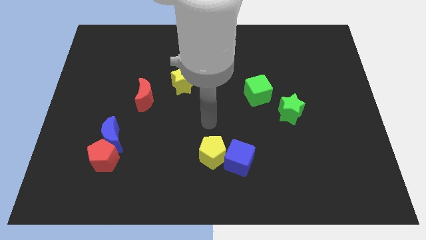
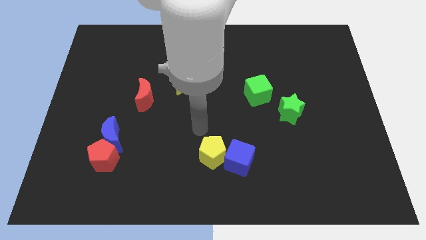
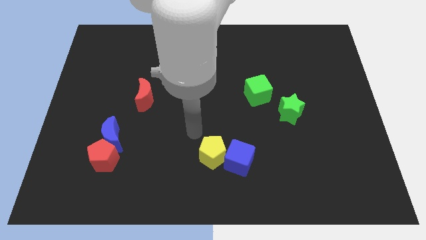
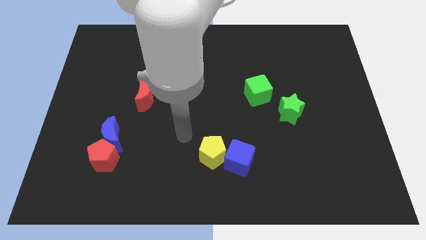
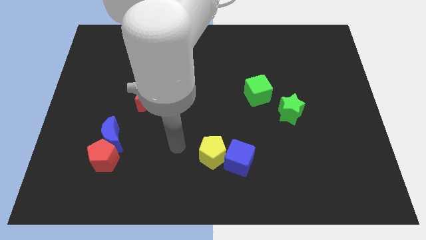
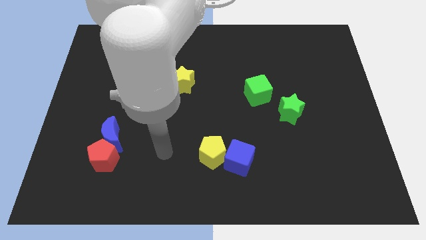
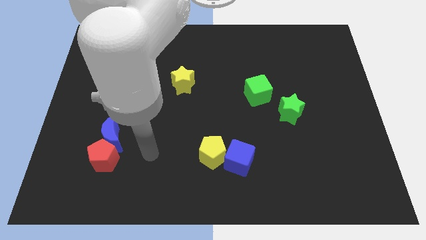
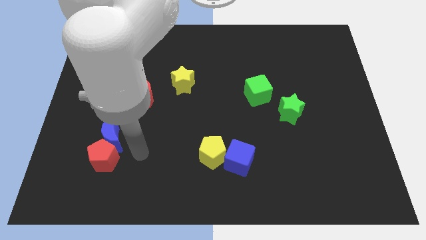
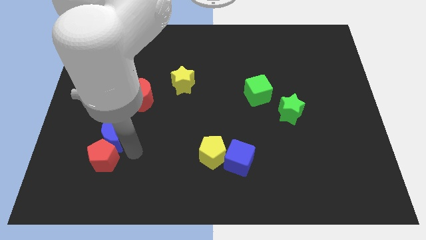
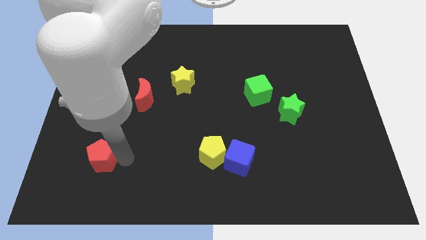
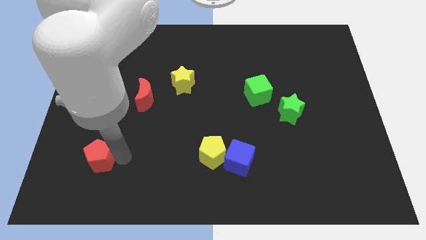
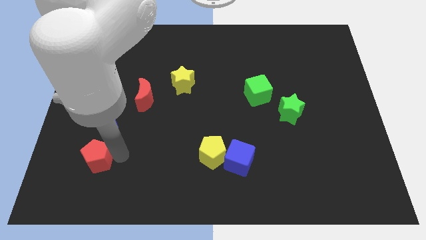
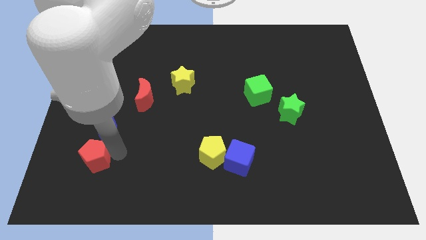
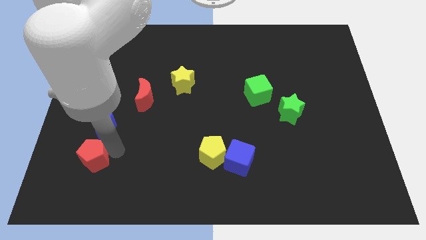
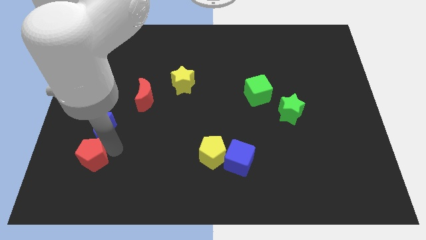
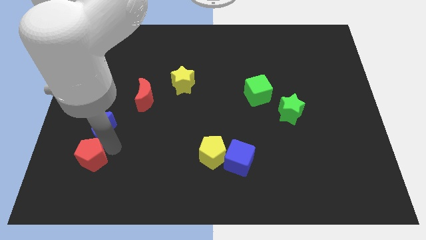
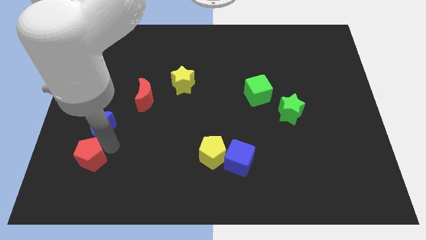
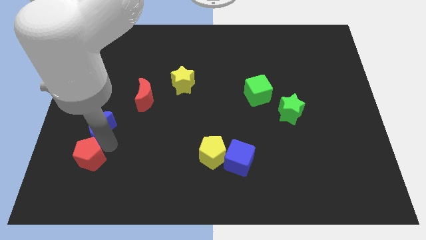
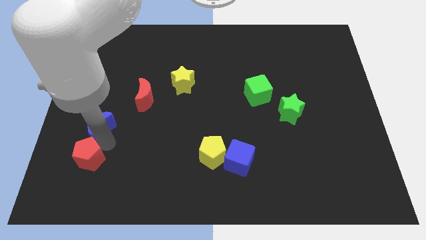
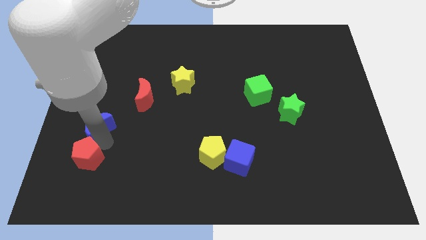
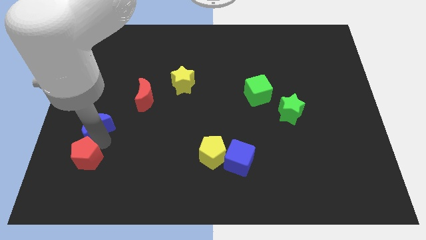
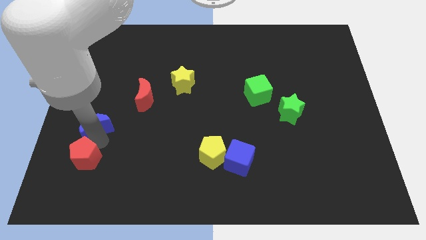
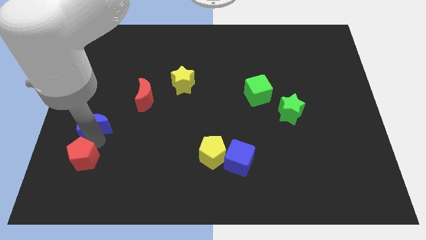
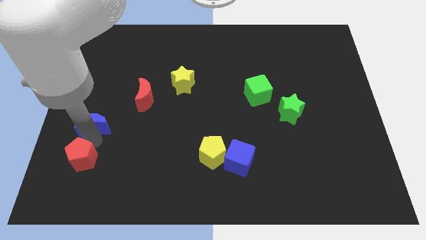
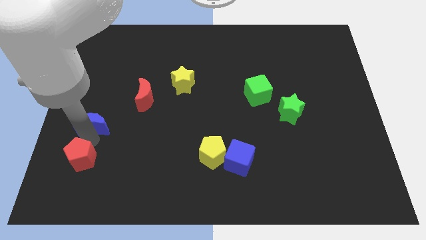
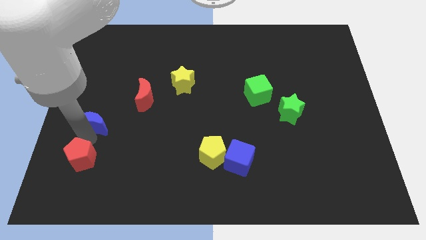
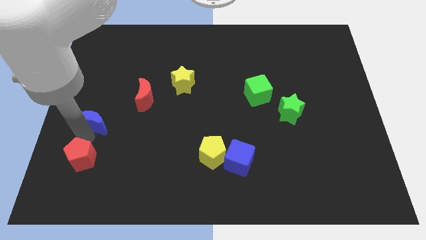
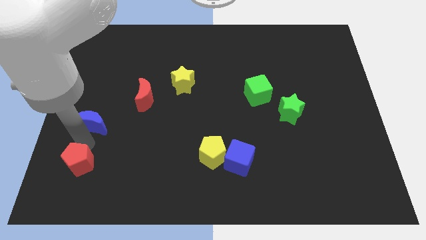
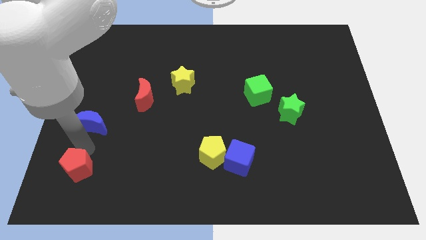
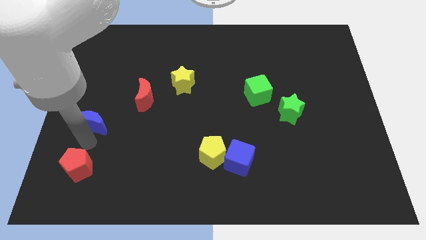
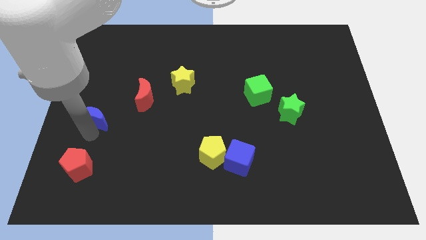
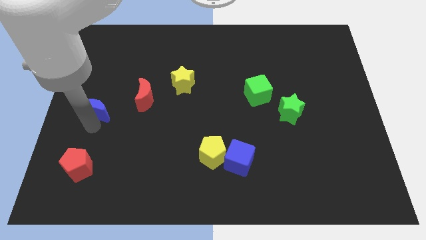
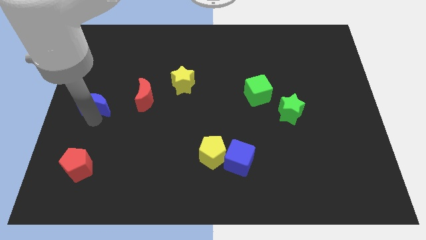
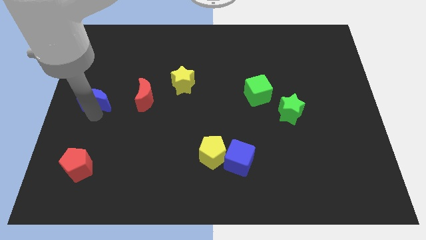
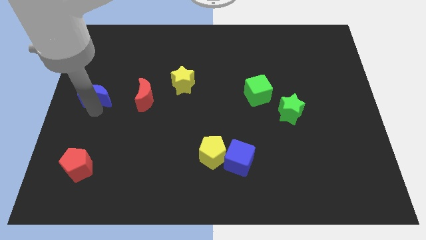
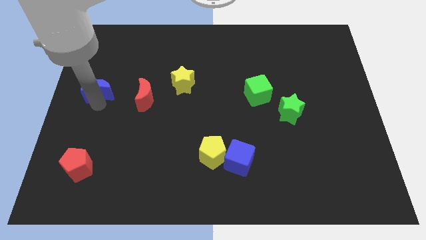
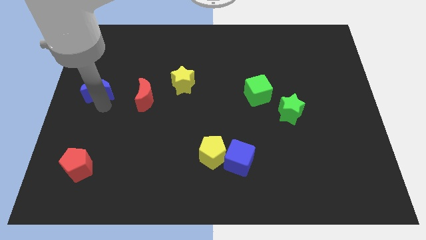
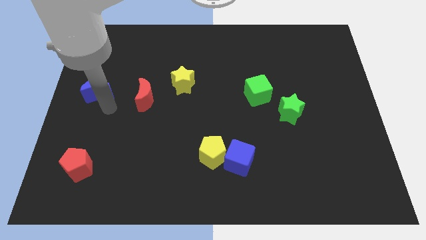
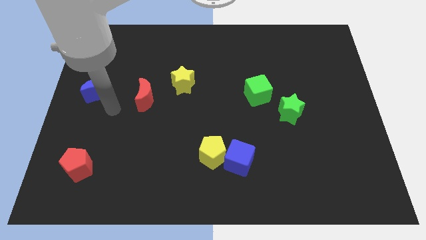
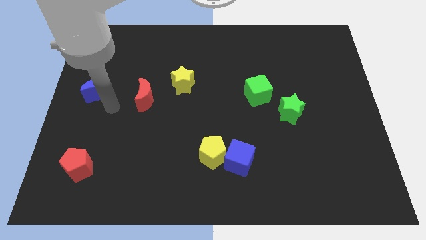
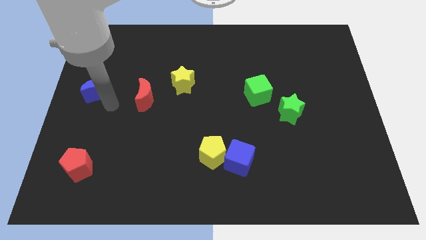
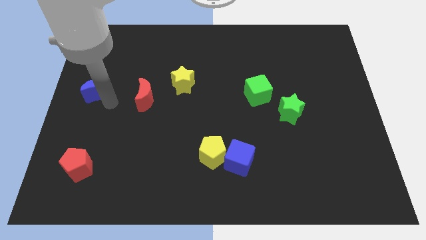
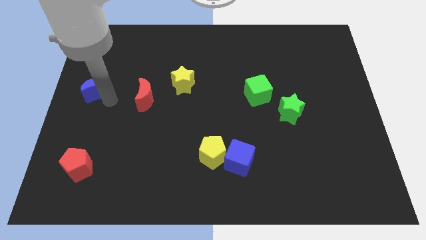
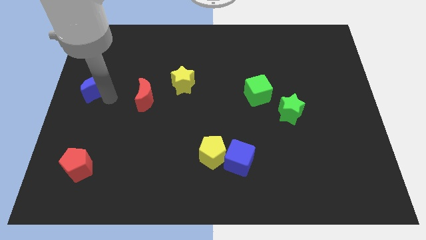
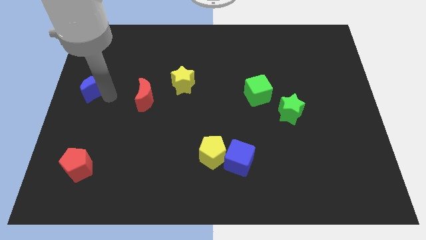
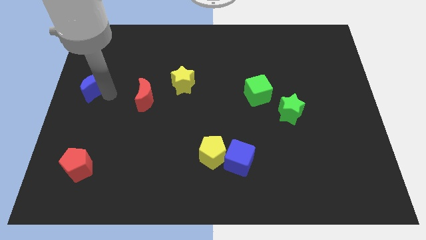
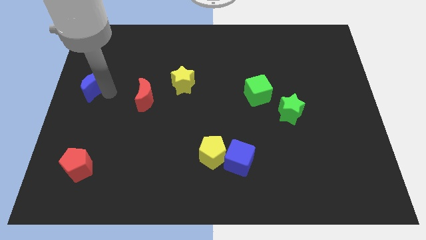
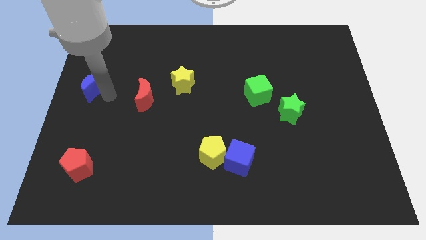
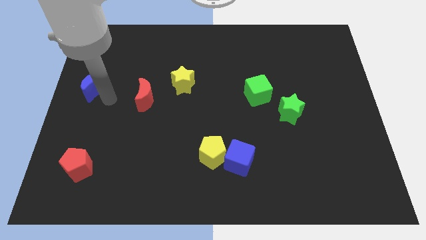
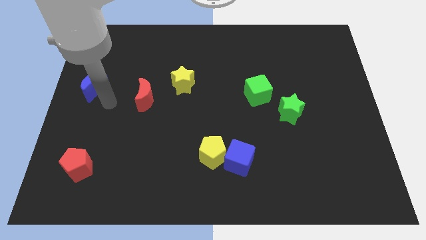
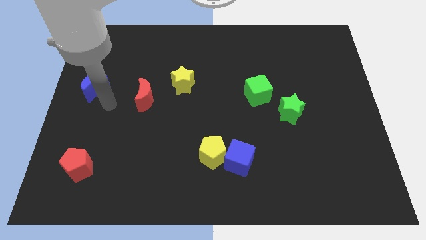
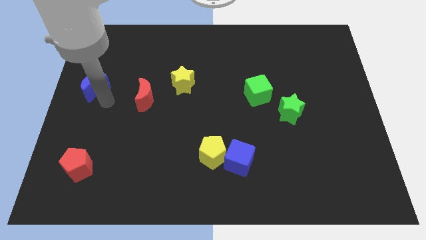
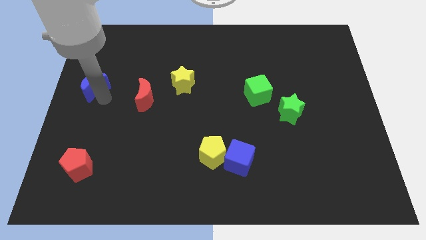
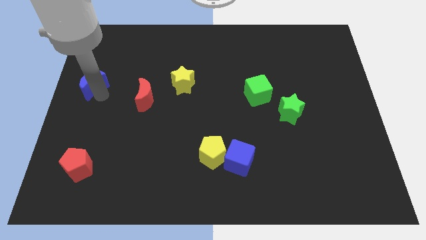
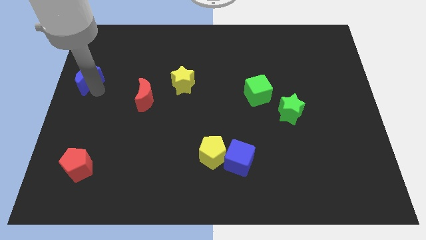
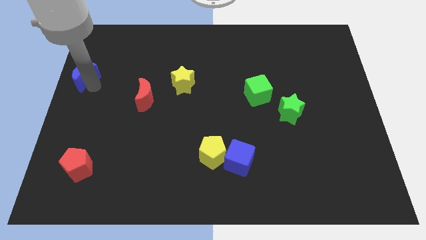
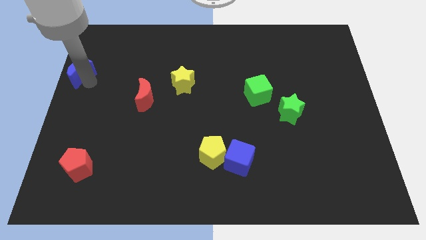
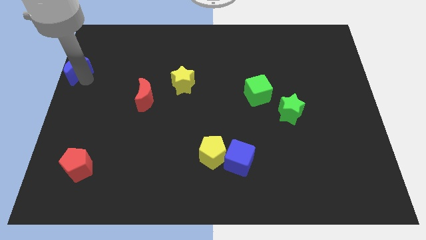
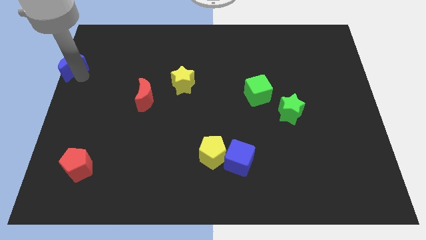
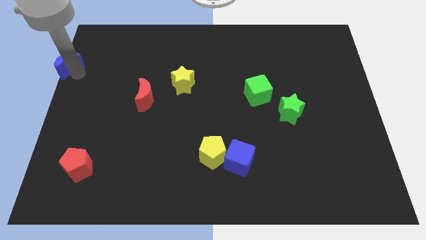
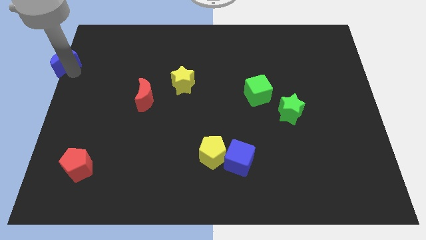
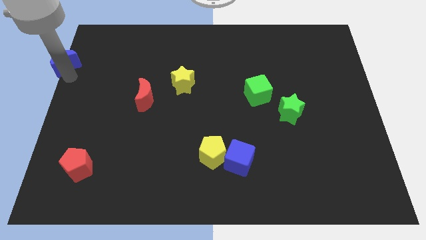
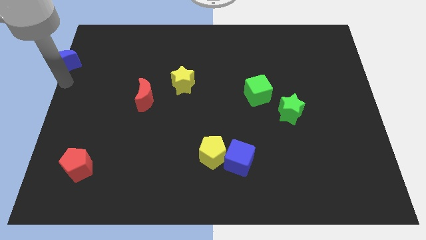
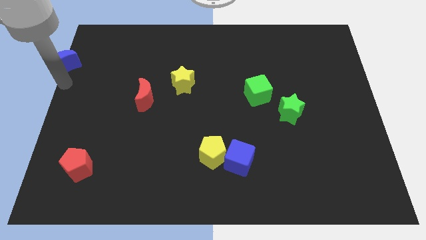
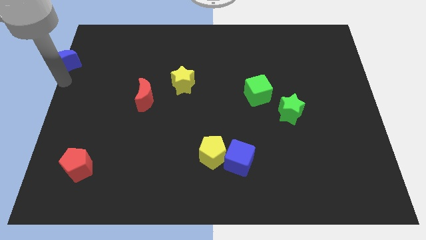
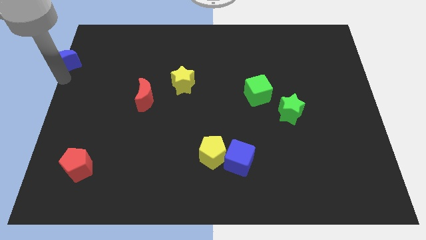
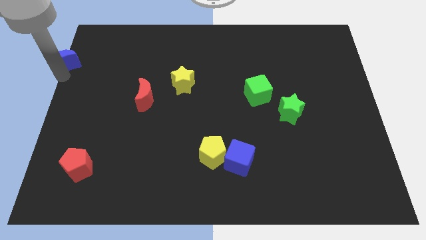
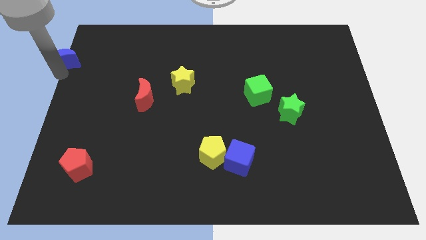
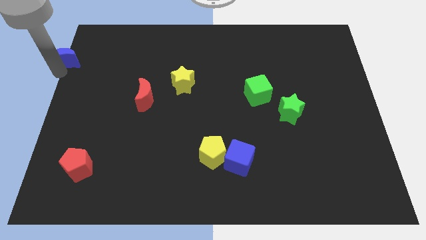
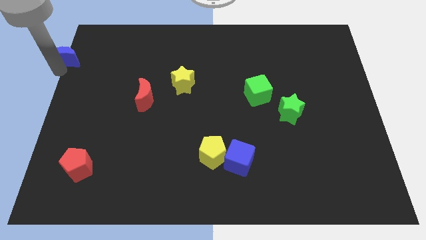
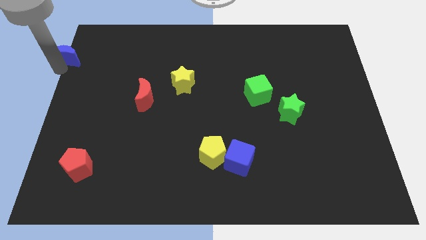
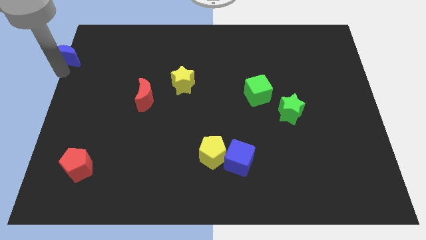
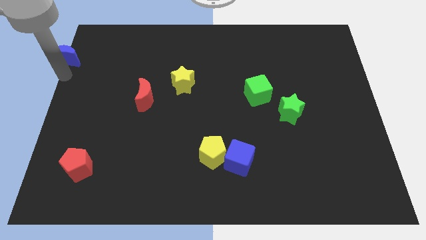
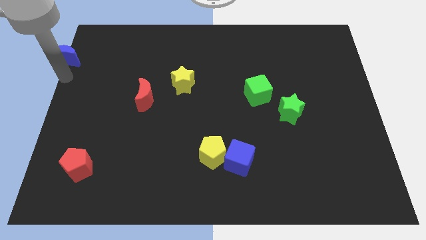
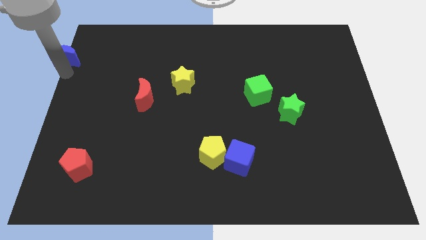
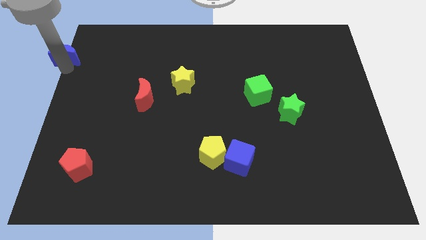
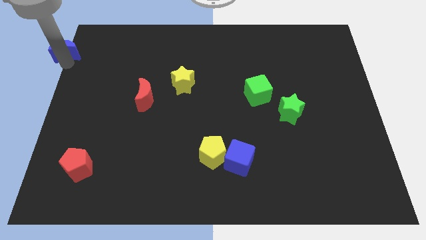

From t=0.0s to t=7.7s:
slide the blue moon to the upper left corner
